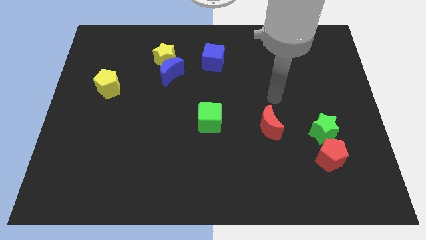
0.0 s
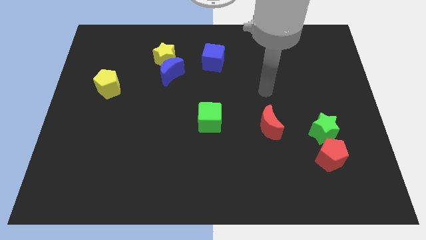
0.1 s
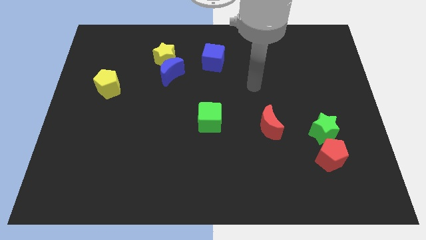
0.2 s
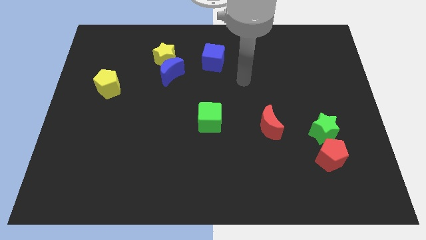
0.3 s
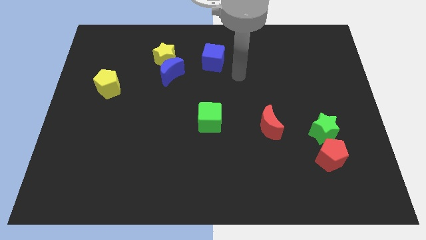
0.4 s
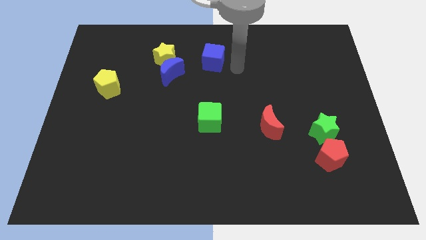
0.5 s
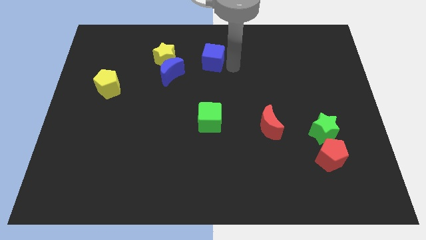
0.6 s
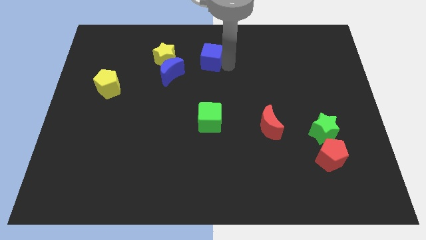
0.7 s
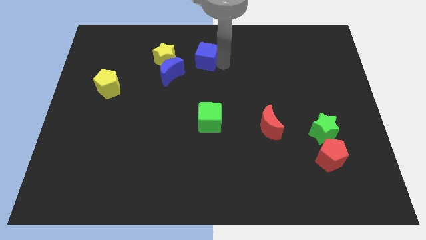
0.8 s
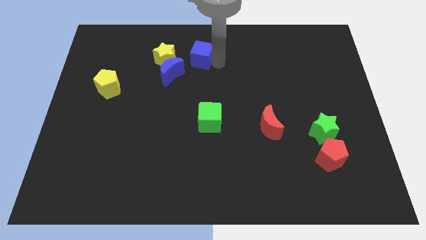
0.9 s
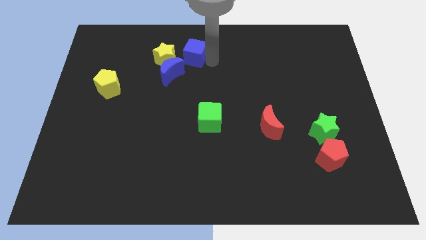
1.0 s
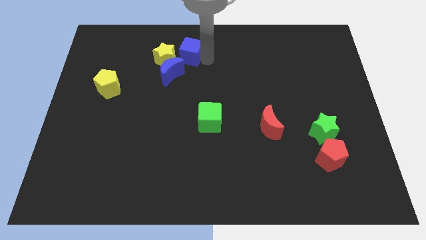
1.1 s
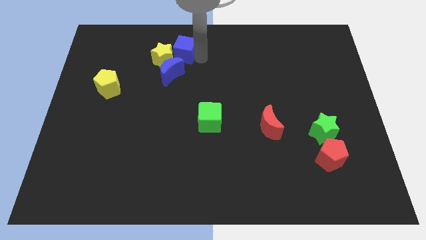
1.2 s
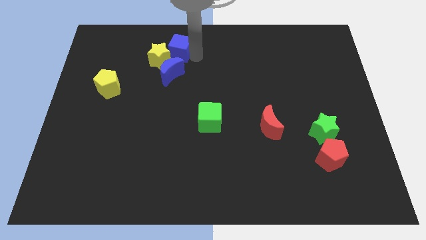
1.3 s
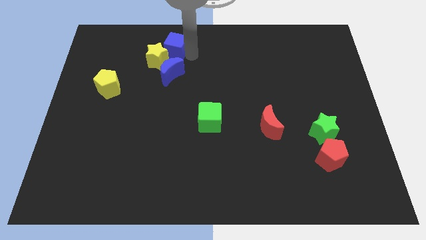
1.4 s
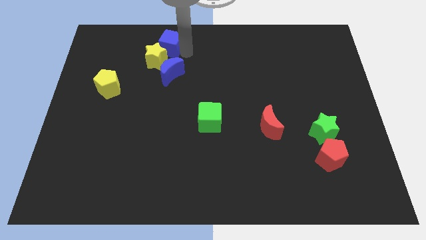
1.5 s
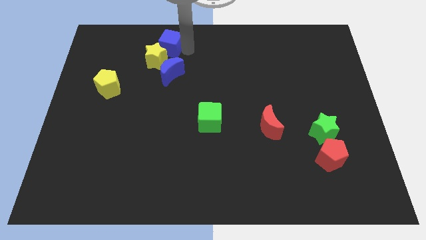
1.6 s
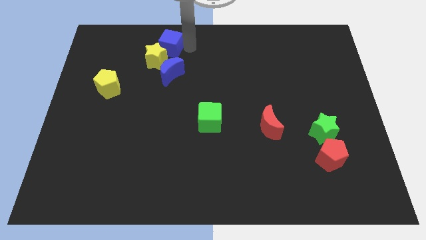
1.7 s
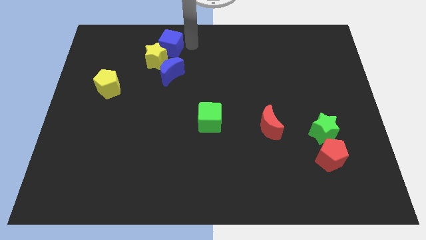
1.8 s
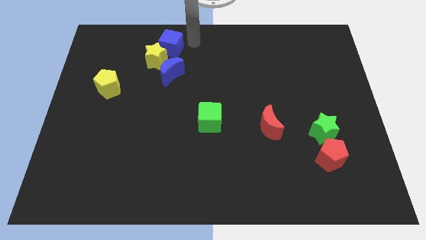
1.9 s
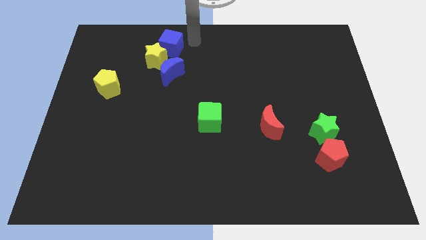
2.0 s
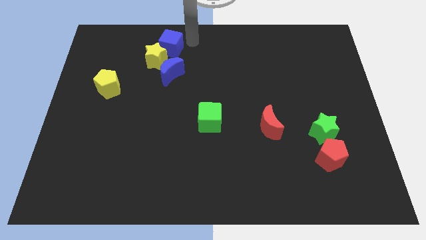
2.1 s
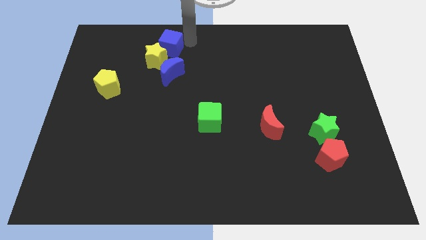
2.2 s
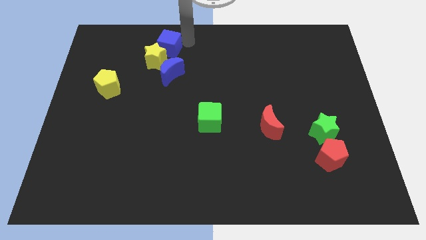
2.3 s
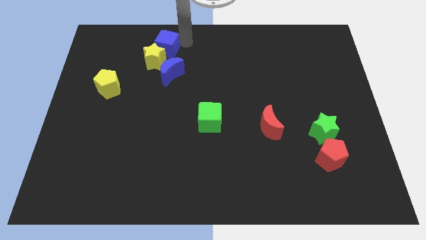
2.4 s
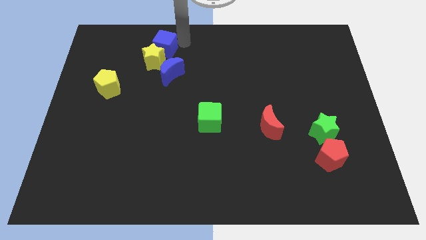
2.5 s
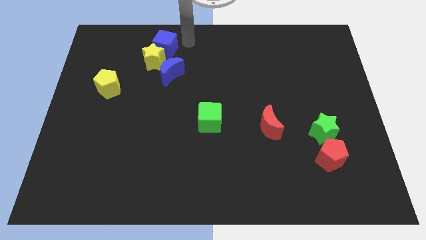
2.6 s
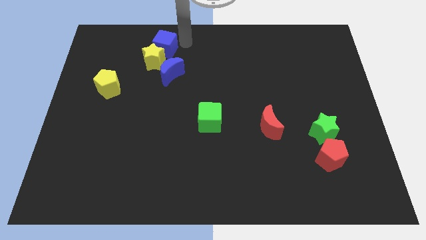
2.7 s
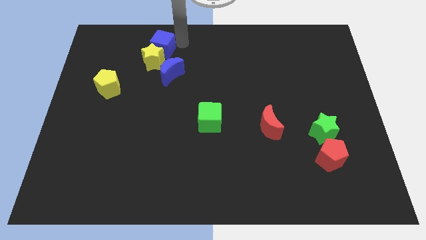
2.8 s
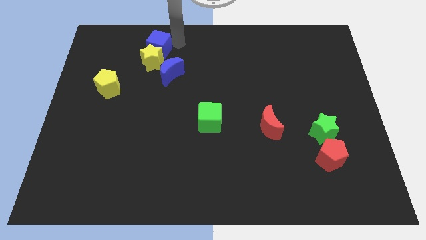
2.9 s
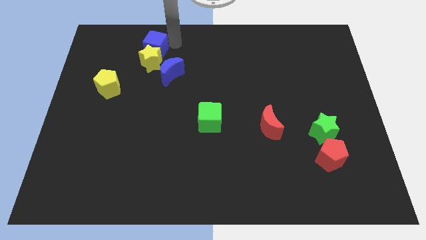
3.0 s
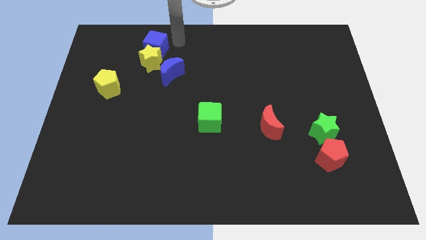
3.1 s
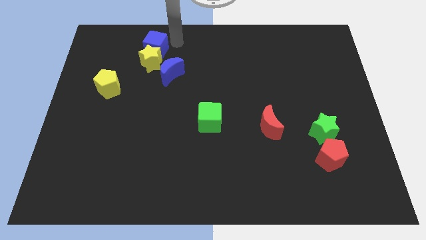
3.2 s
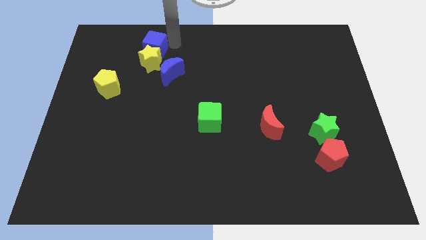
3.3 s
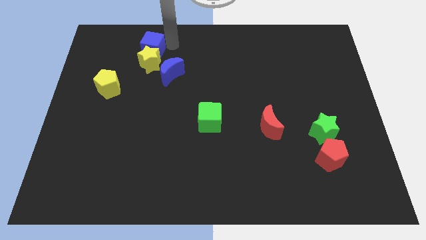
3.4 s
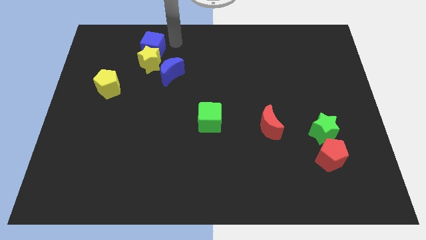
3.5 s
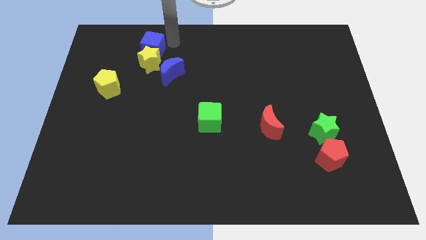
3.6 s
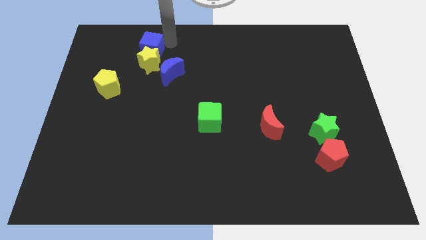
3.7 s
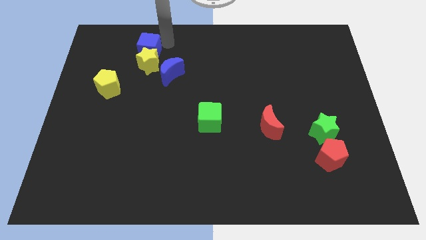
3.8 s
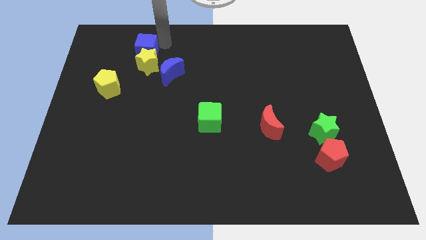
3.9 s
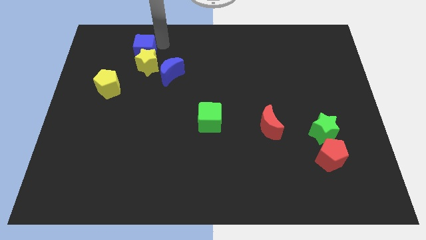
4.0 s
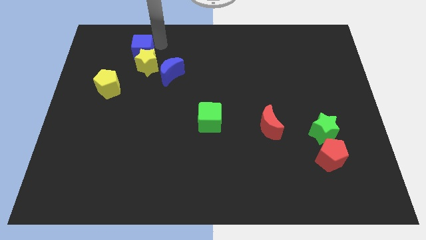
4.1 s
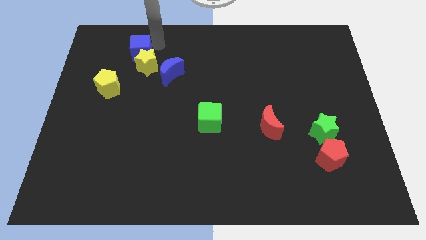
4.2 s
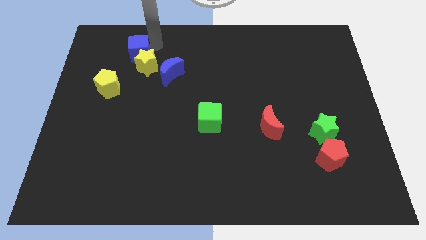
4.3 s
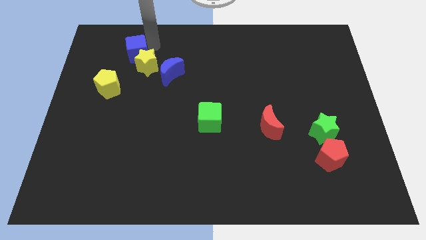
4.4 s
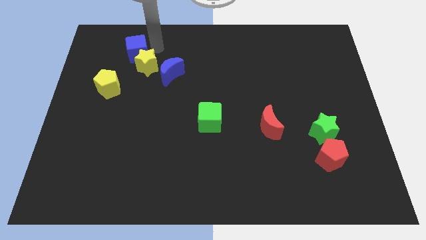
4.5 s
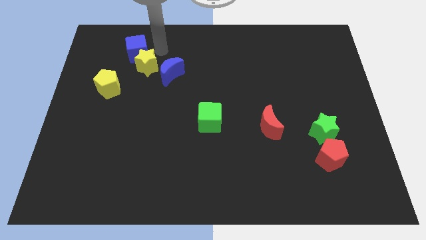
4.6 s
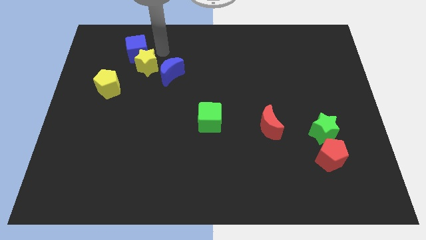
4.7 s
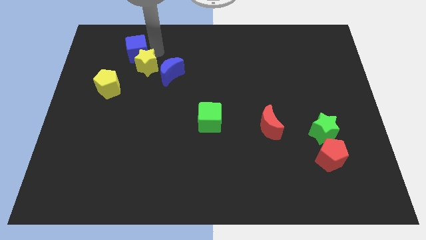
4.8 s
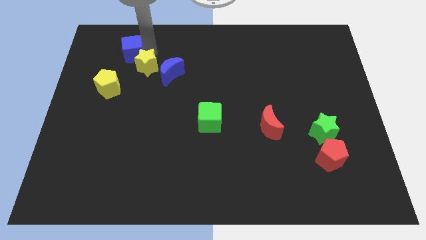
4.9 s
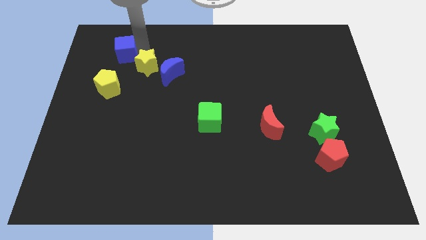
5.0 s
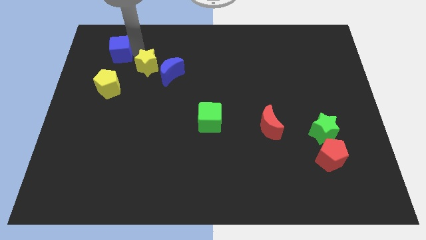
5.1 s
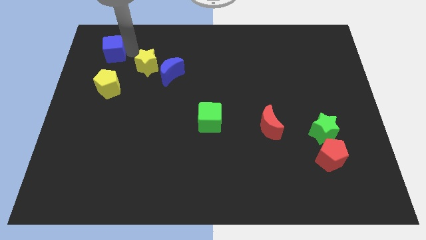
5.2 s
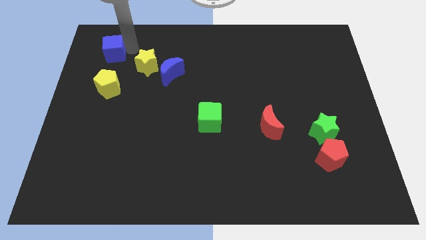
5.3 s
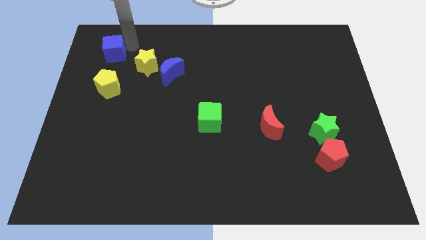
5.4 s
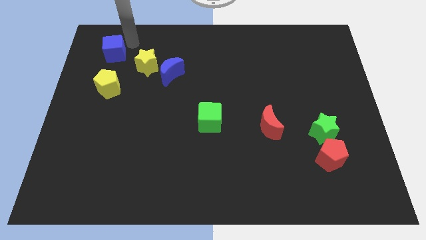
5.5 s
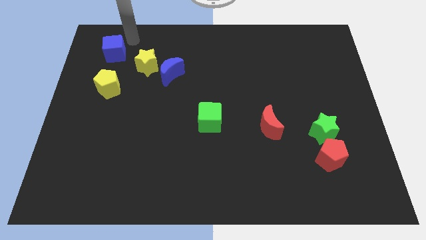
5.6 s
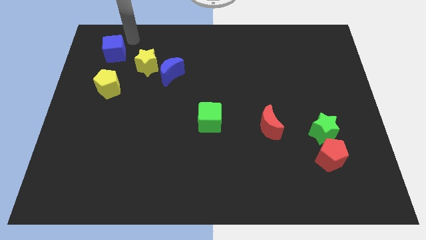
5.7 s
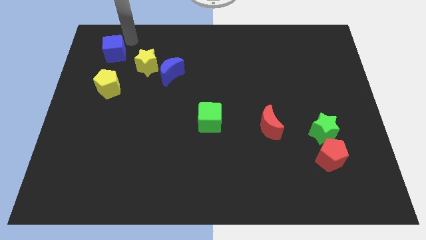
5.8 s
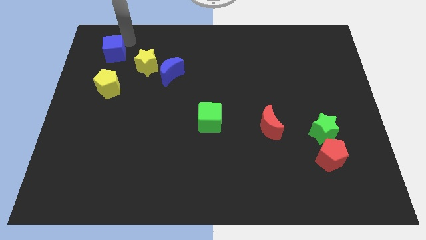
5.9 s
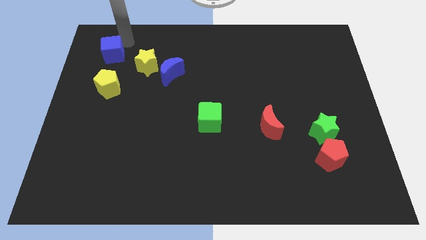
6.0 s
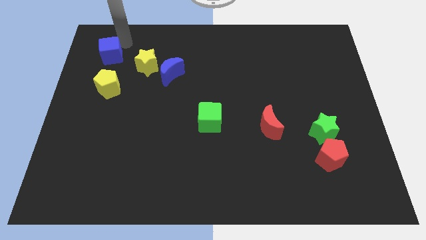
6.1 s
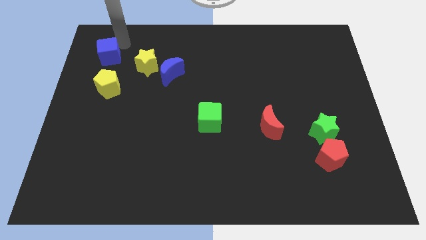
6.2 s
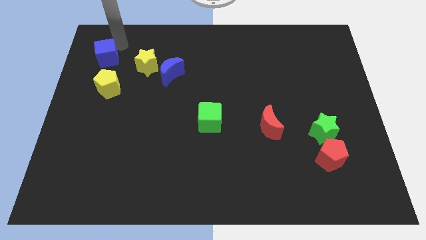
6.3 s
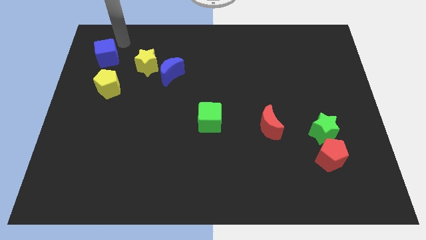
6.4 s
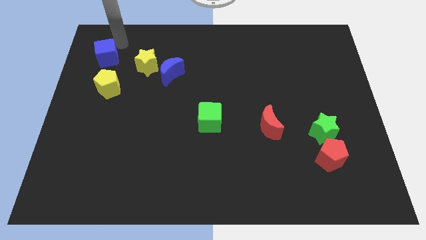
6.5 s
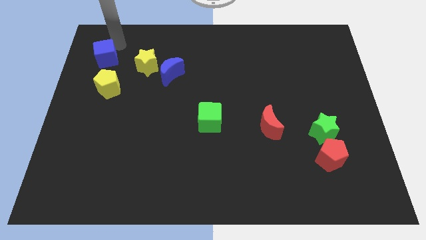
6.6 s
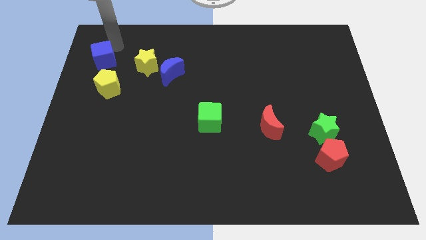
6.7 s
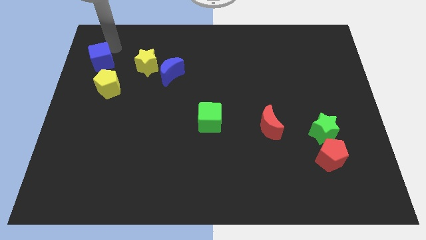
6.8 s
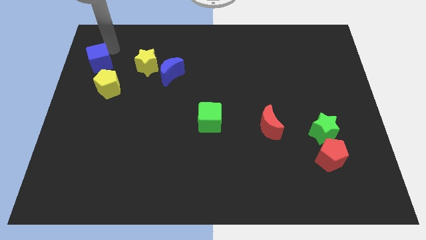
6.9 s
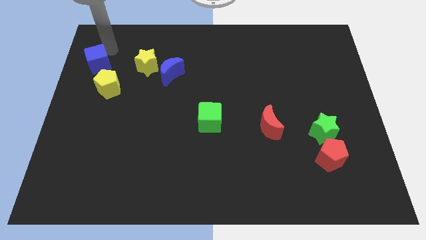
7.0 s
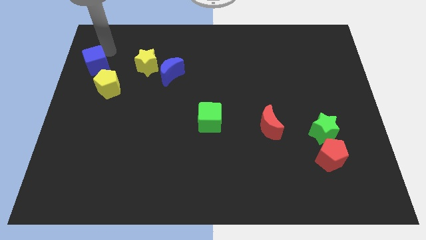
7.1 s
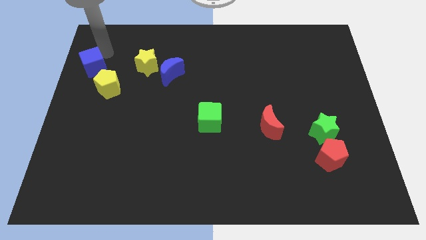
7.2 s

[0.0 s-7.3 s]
move the blue cube to the left side of the board
